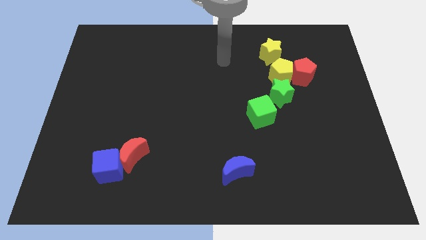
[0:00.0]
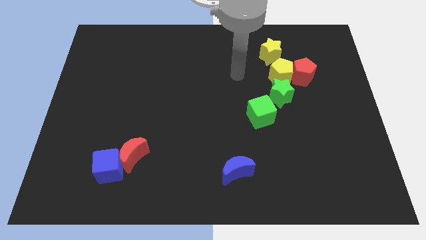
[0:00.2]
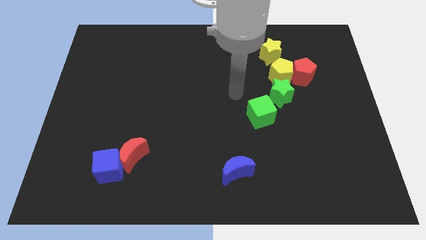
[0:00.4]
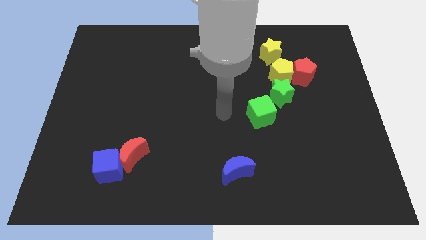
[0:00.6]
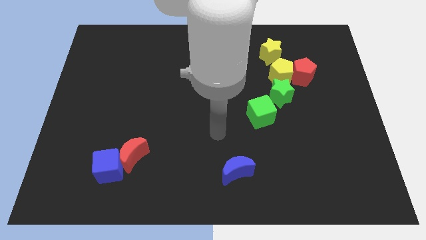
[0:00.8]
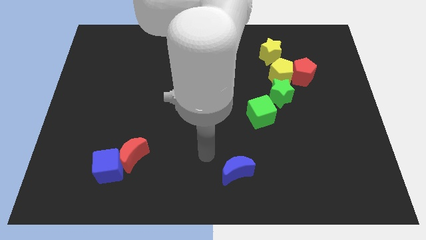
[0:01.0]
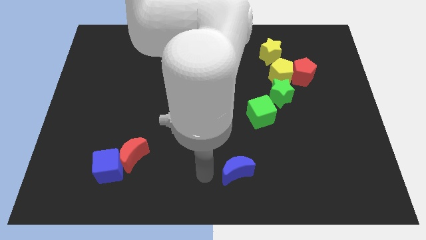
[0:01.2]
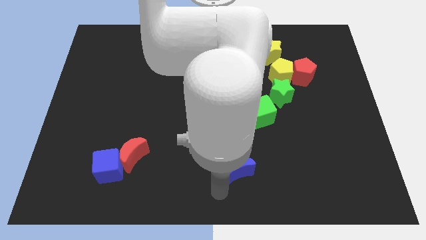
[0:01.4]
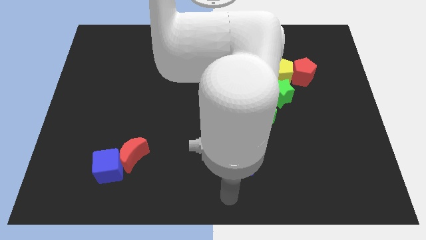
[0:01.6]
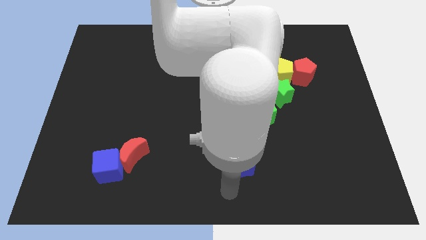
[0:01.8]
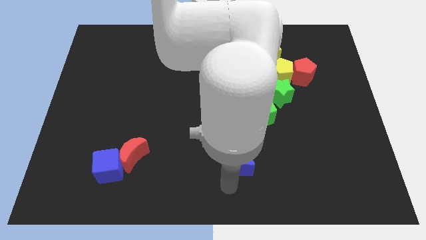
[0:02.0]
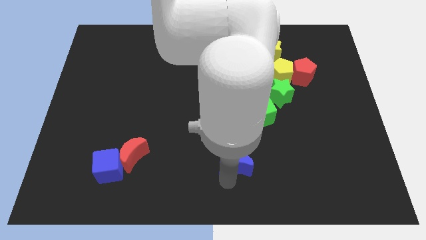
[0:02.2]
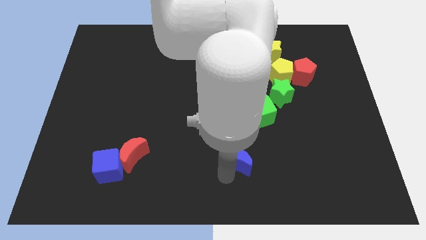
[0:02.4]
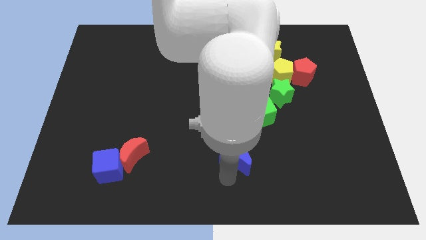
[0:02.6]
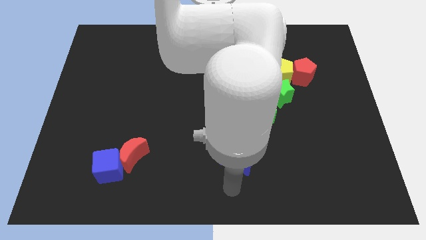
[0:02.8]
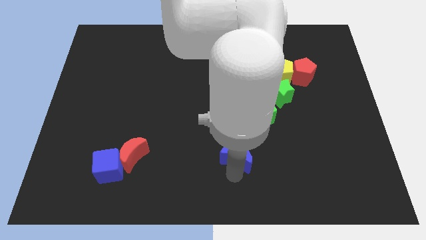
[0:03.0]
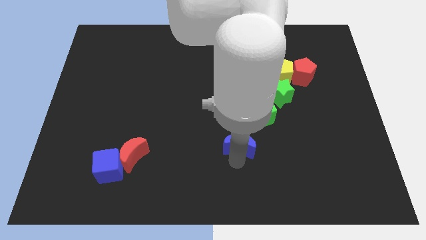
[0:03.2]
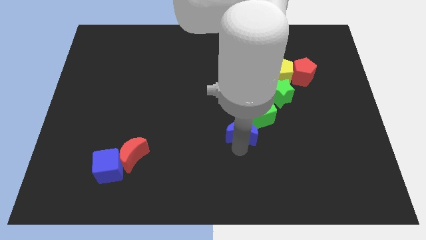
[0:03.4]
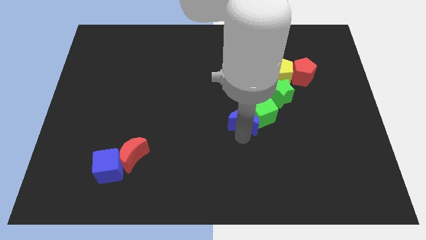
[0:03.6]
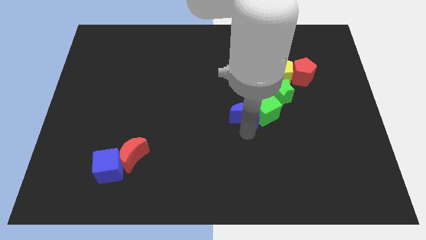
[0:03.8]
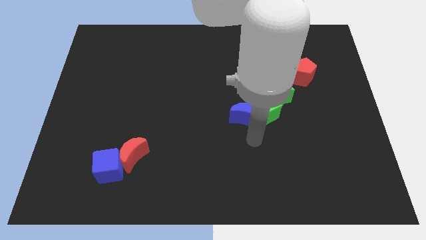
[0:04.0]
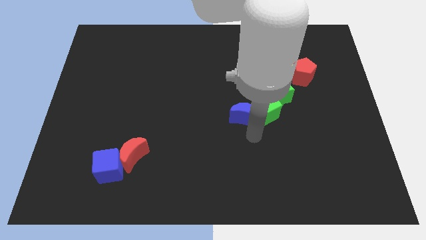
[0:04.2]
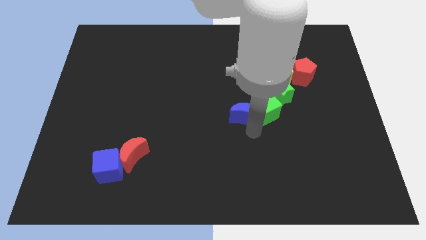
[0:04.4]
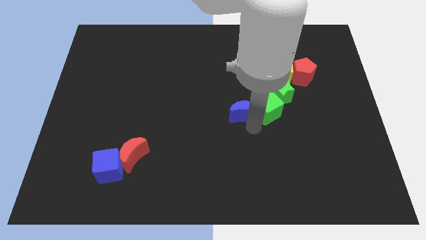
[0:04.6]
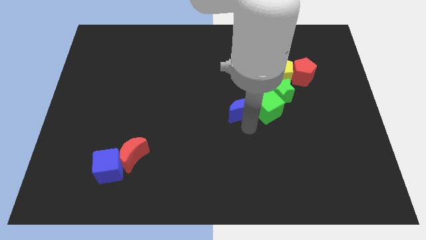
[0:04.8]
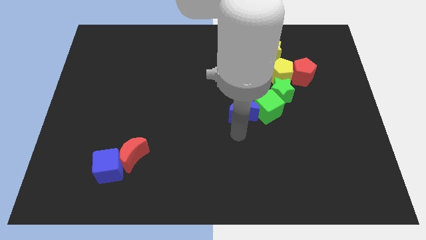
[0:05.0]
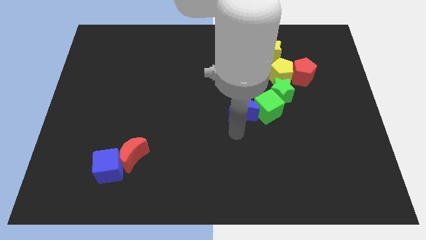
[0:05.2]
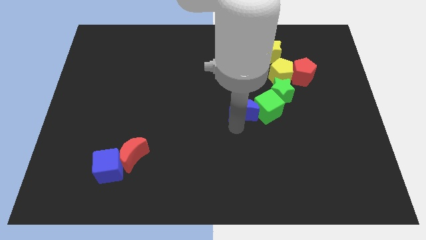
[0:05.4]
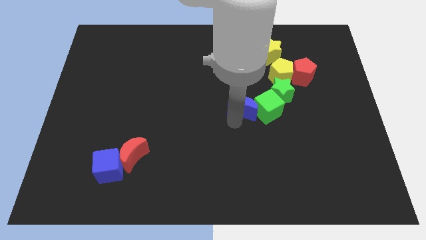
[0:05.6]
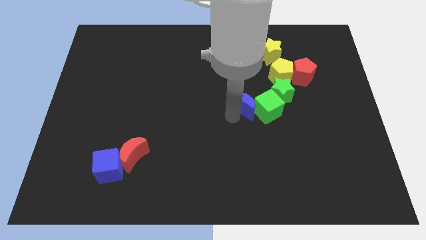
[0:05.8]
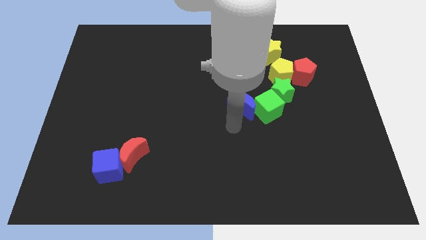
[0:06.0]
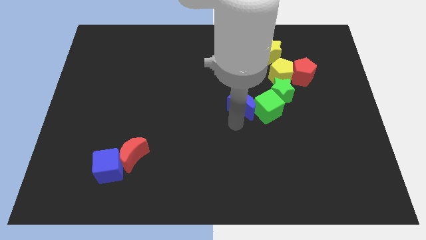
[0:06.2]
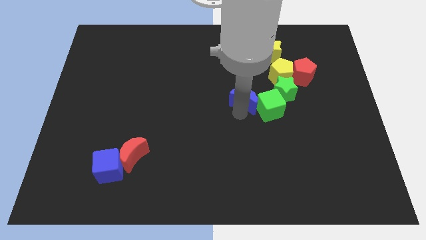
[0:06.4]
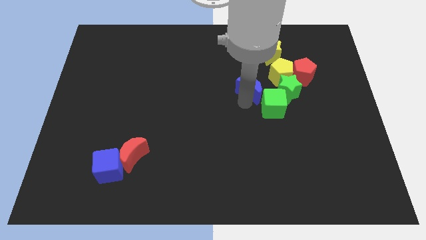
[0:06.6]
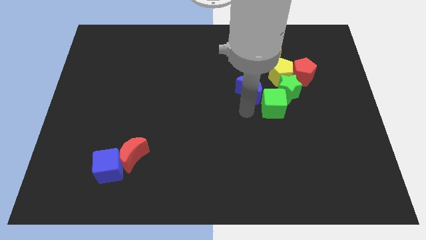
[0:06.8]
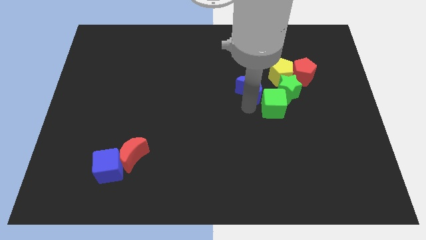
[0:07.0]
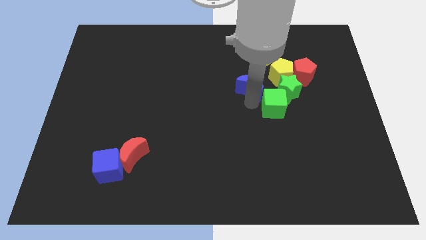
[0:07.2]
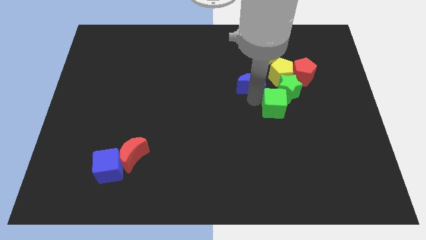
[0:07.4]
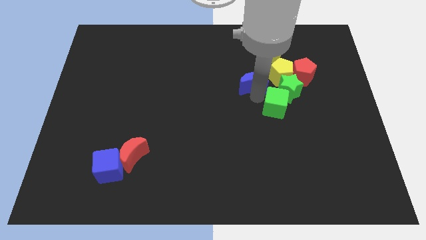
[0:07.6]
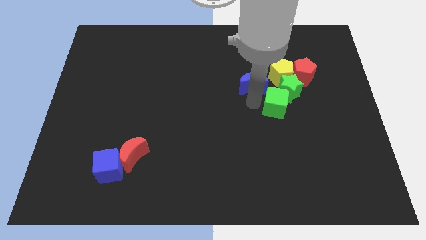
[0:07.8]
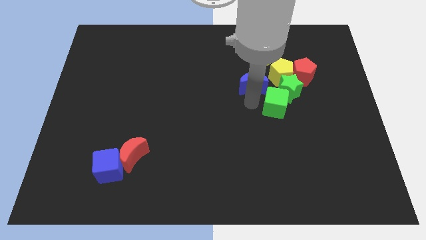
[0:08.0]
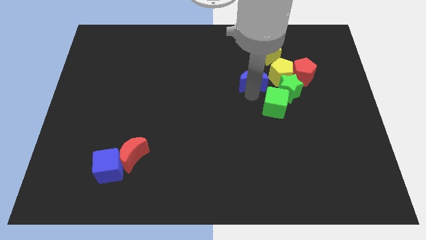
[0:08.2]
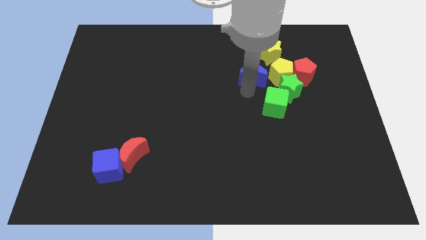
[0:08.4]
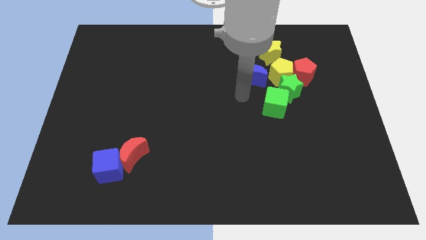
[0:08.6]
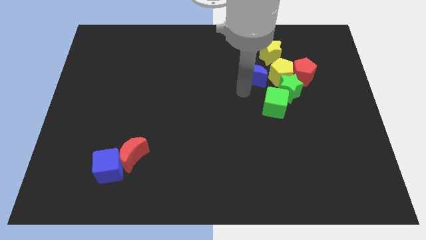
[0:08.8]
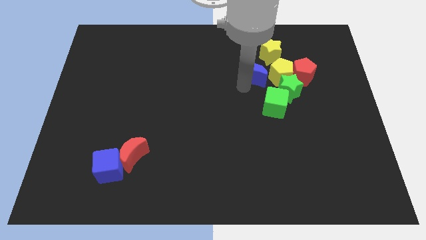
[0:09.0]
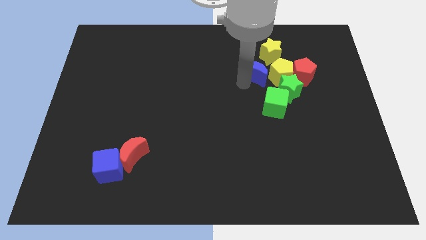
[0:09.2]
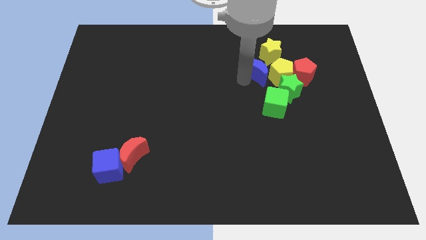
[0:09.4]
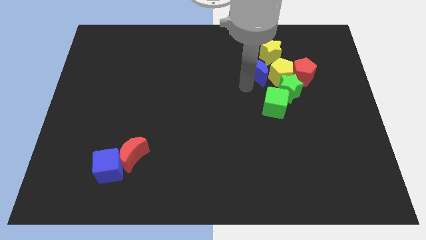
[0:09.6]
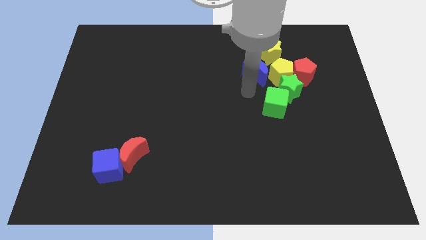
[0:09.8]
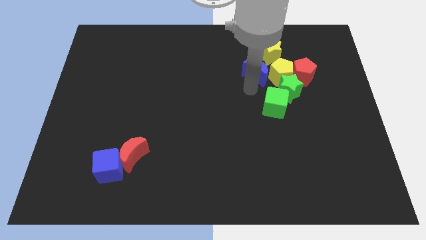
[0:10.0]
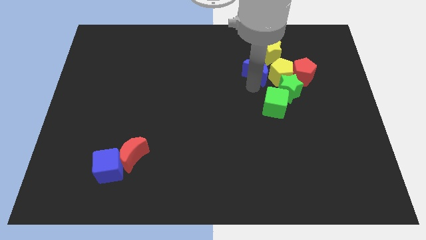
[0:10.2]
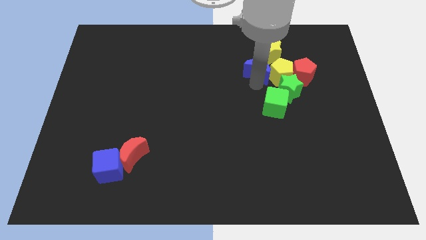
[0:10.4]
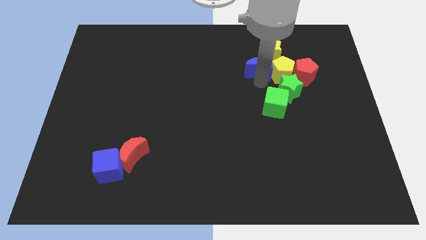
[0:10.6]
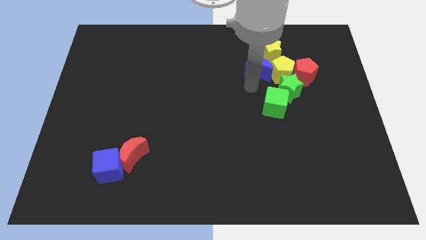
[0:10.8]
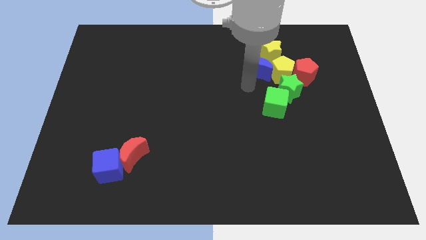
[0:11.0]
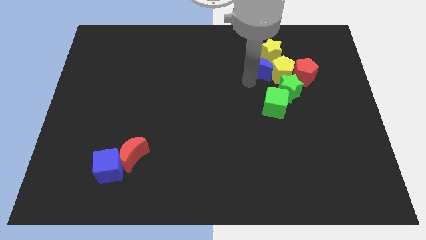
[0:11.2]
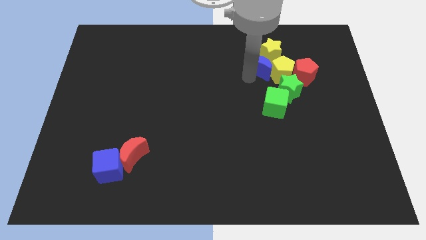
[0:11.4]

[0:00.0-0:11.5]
slide the blue moon towards the yellow star

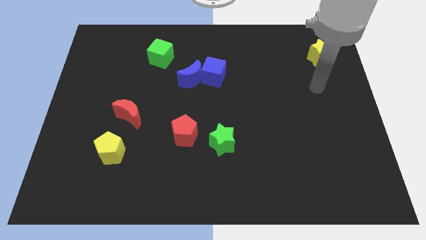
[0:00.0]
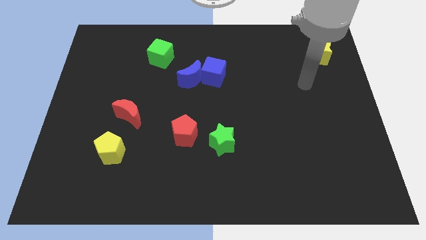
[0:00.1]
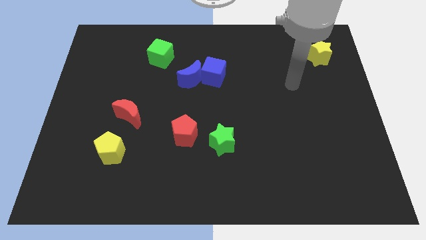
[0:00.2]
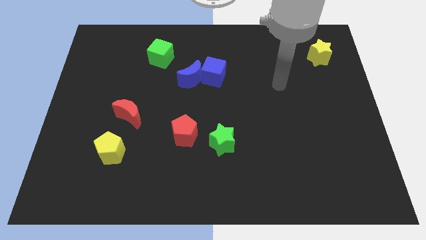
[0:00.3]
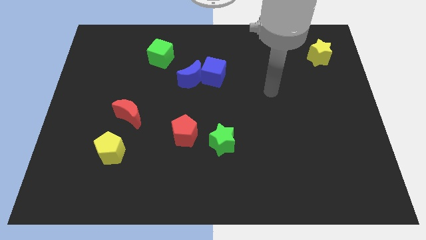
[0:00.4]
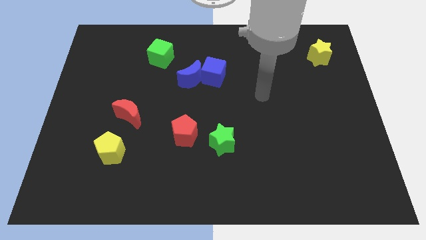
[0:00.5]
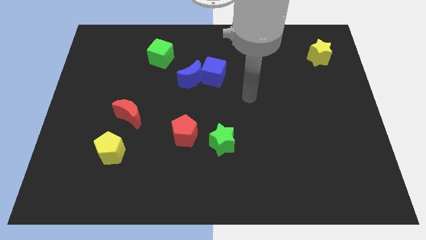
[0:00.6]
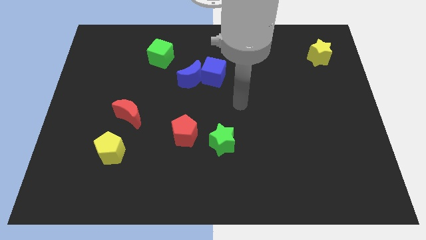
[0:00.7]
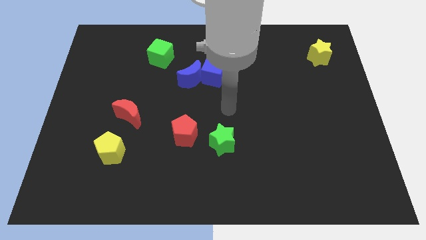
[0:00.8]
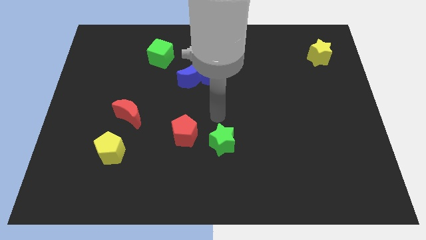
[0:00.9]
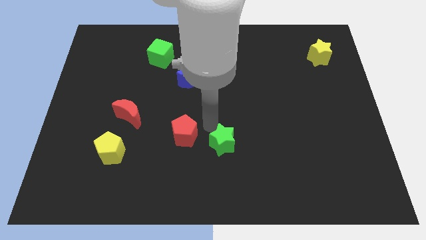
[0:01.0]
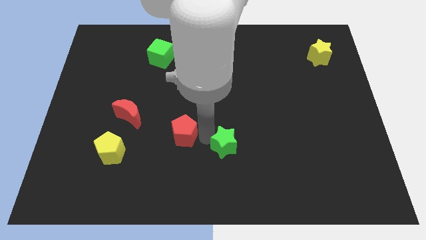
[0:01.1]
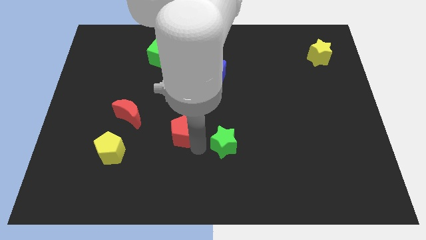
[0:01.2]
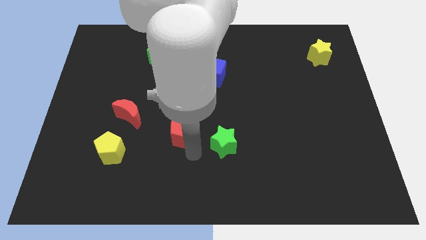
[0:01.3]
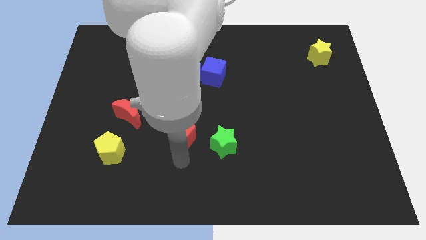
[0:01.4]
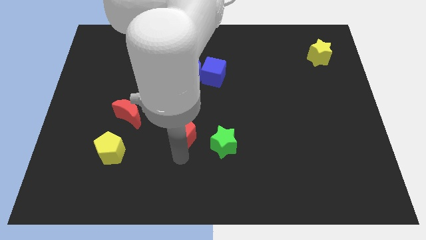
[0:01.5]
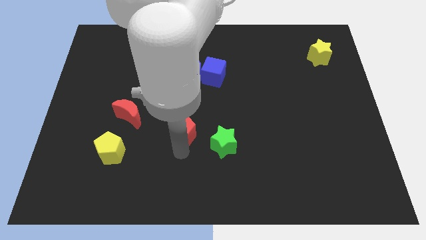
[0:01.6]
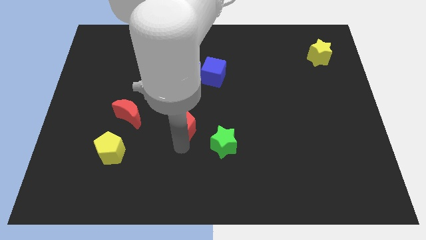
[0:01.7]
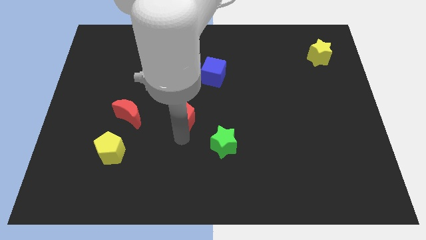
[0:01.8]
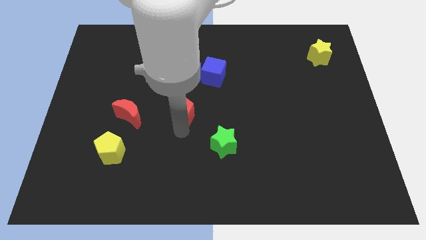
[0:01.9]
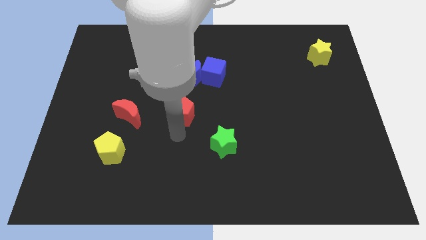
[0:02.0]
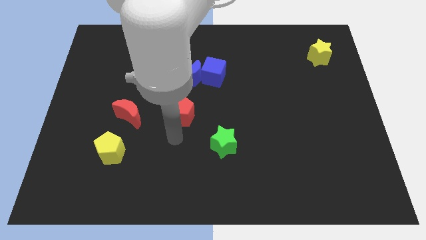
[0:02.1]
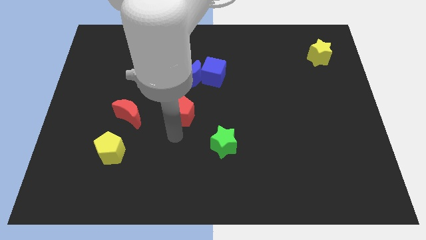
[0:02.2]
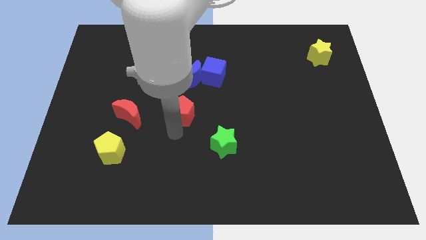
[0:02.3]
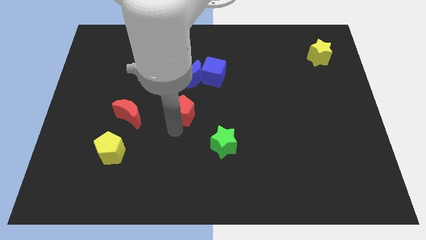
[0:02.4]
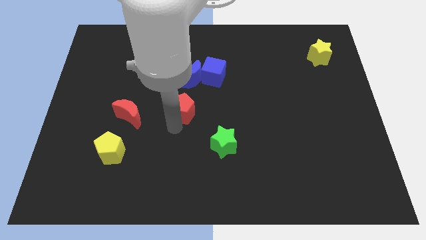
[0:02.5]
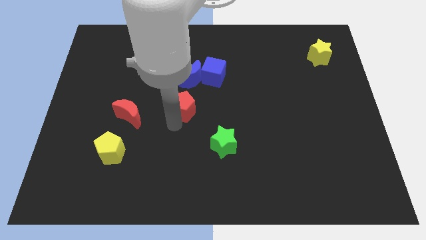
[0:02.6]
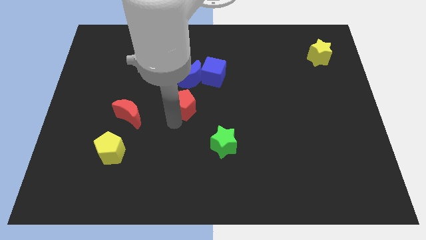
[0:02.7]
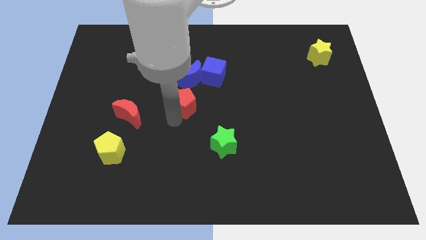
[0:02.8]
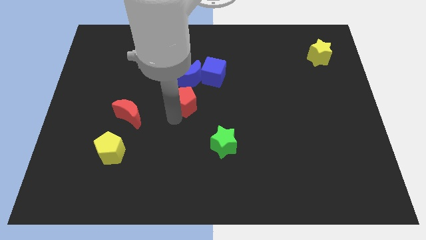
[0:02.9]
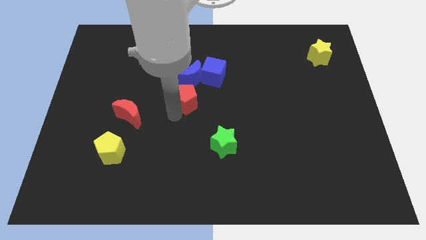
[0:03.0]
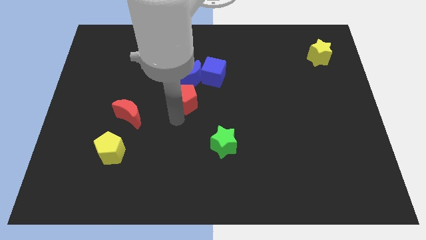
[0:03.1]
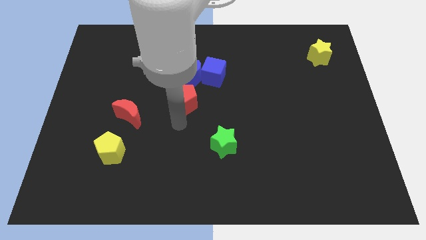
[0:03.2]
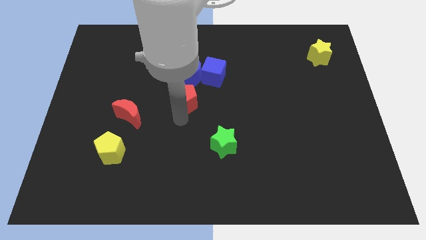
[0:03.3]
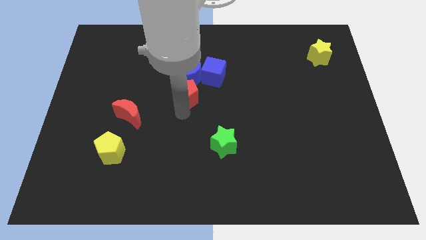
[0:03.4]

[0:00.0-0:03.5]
slide the red pentagon to the blue moon
